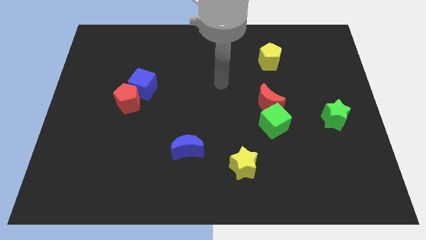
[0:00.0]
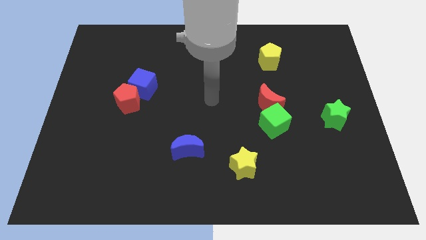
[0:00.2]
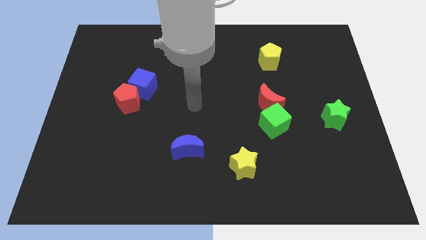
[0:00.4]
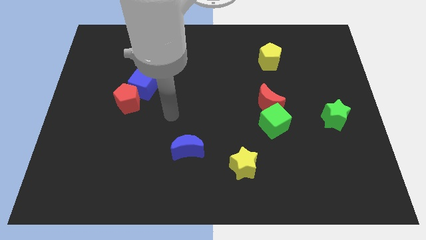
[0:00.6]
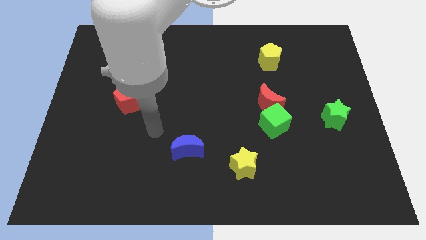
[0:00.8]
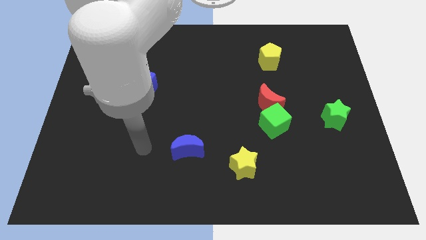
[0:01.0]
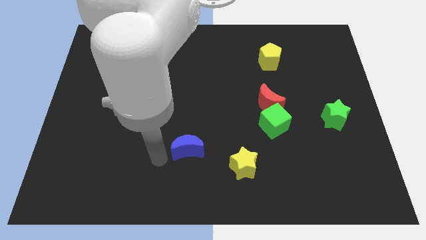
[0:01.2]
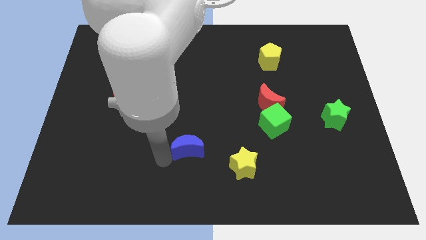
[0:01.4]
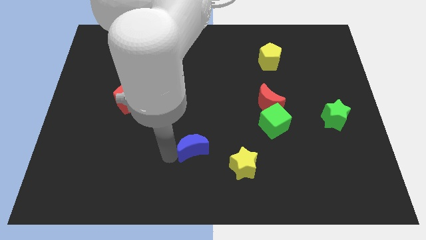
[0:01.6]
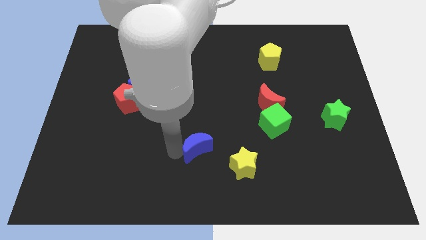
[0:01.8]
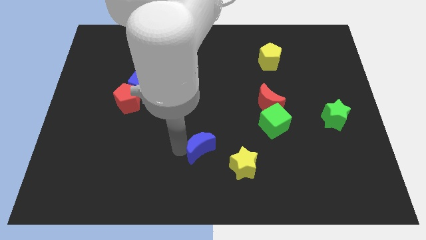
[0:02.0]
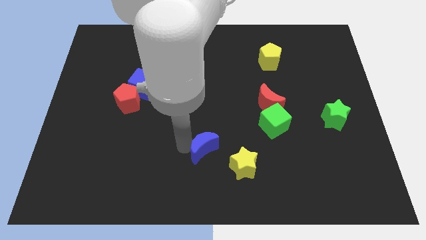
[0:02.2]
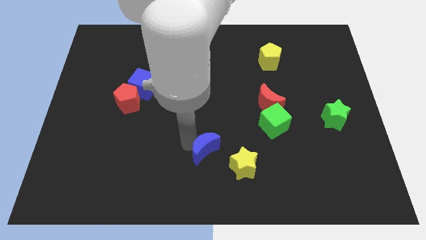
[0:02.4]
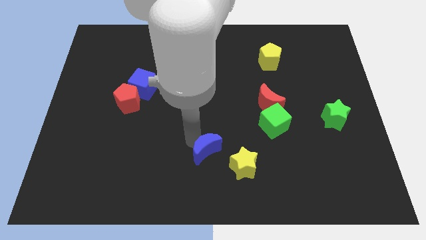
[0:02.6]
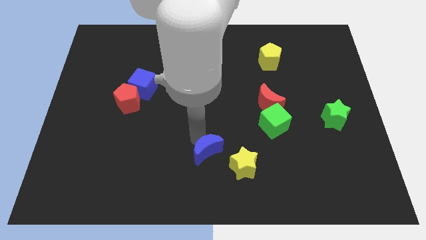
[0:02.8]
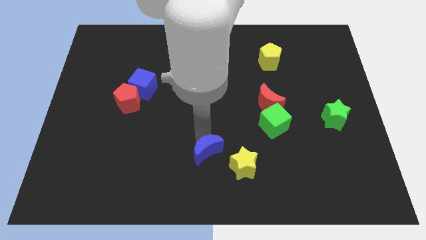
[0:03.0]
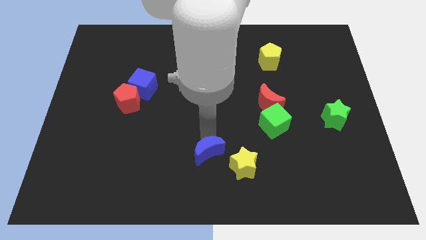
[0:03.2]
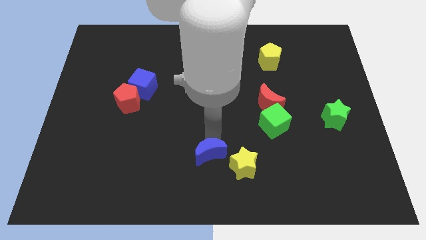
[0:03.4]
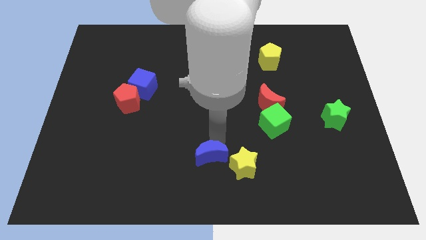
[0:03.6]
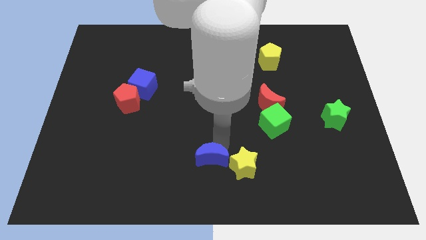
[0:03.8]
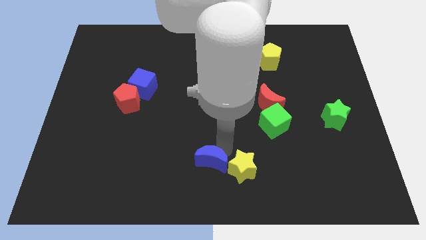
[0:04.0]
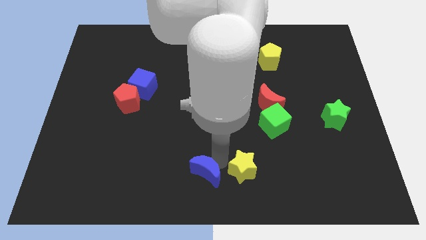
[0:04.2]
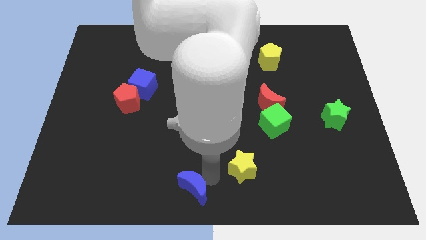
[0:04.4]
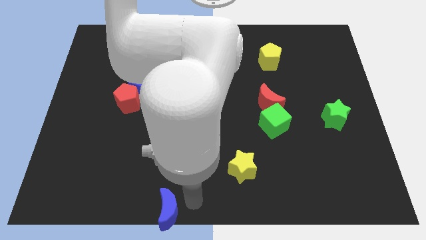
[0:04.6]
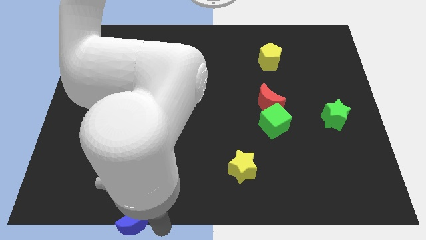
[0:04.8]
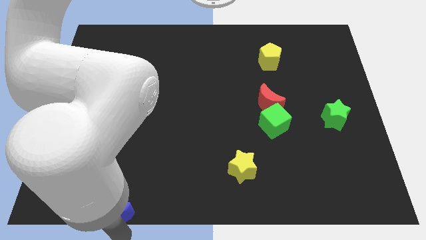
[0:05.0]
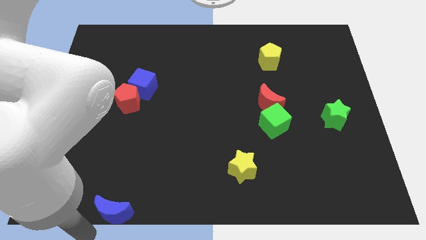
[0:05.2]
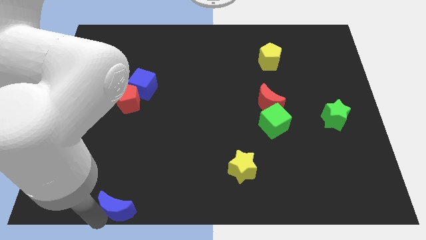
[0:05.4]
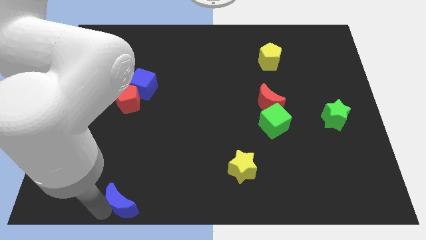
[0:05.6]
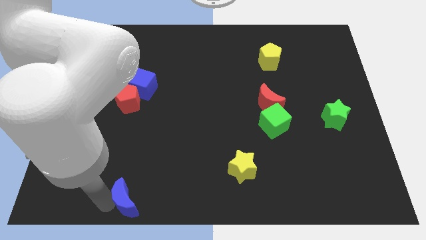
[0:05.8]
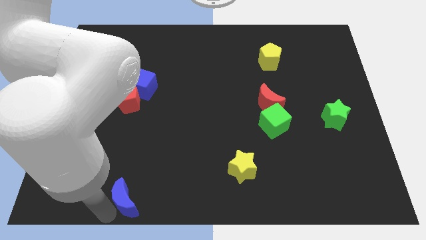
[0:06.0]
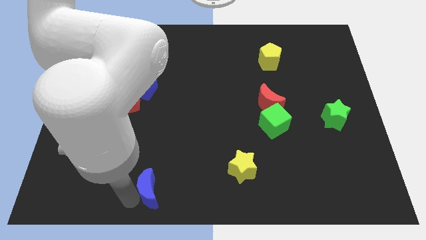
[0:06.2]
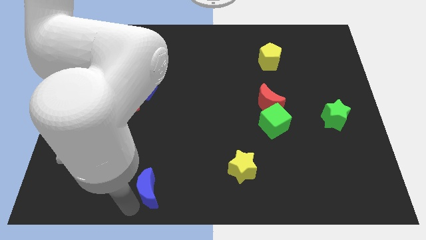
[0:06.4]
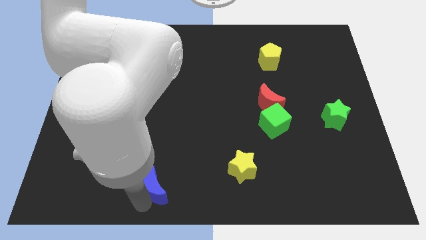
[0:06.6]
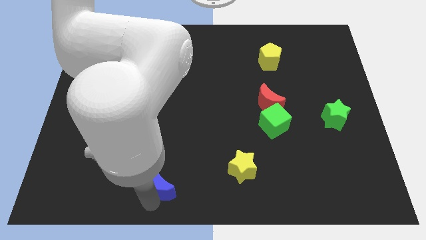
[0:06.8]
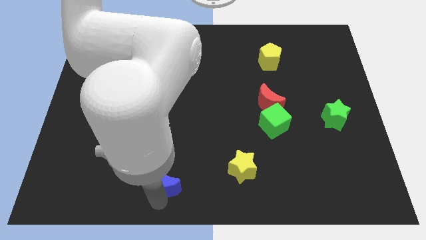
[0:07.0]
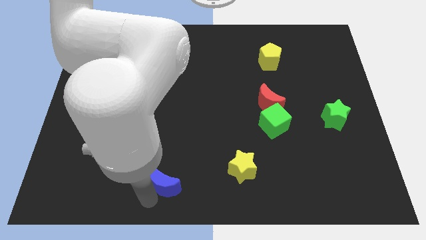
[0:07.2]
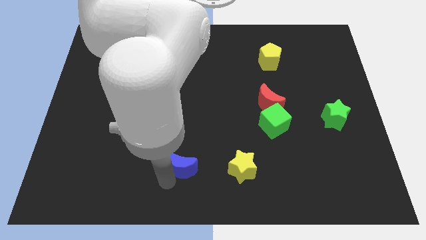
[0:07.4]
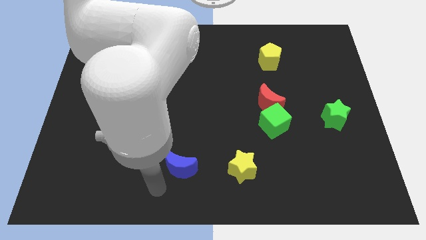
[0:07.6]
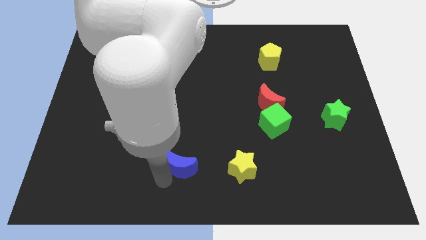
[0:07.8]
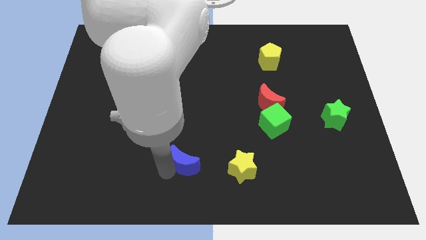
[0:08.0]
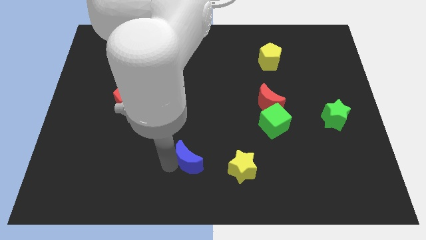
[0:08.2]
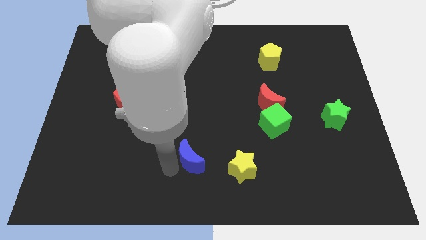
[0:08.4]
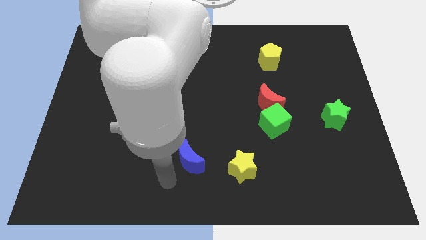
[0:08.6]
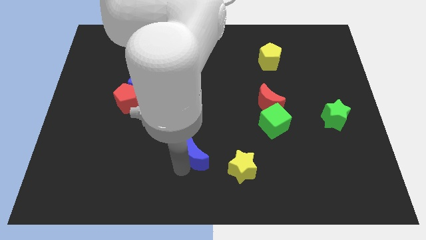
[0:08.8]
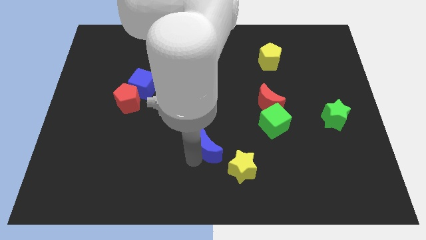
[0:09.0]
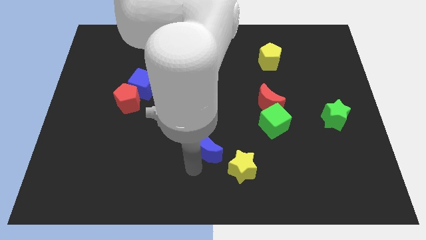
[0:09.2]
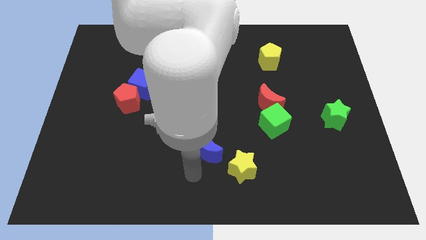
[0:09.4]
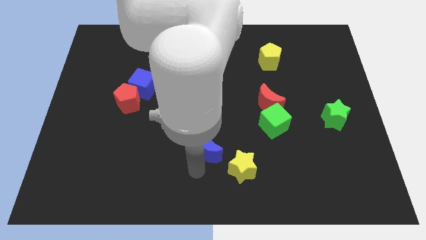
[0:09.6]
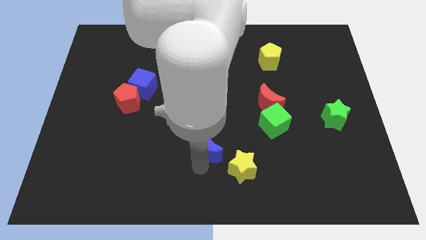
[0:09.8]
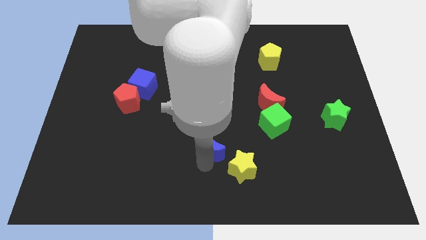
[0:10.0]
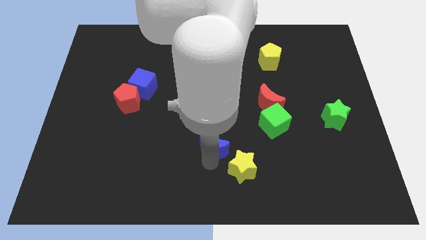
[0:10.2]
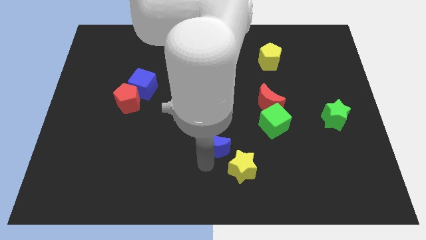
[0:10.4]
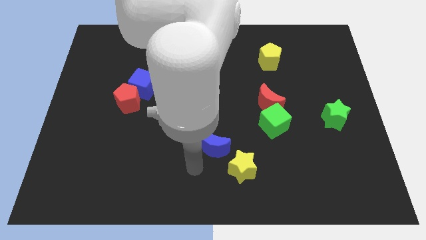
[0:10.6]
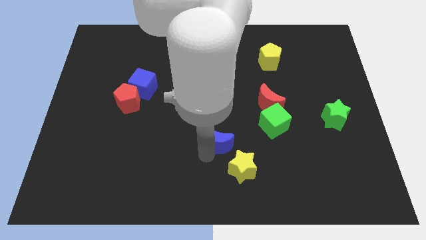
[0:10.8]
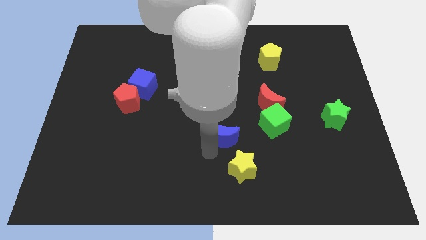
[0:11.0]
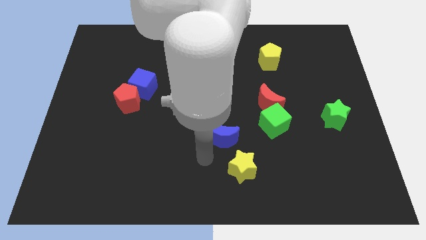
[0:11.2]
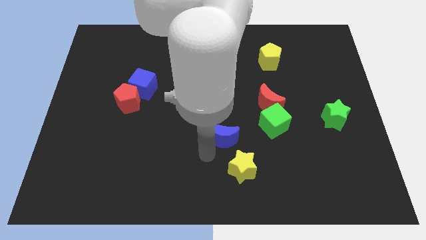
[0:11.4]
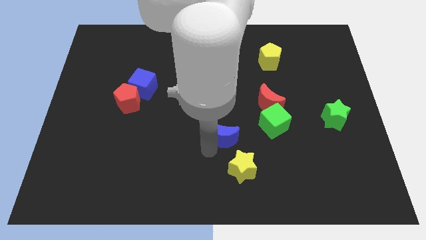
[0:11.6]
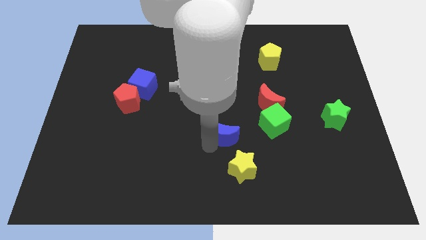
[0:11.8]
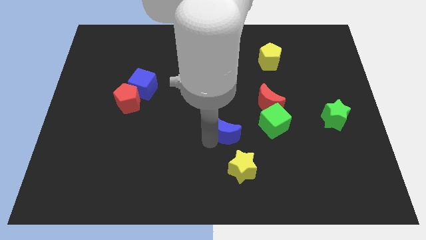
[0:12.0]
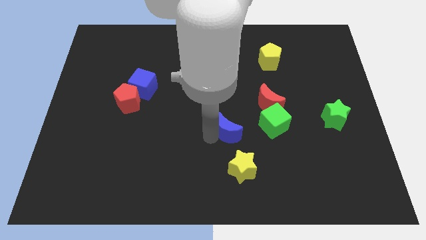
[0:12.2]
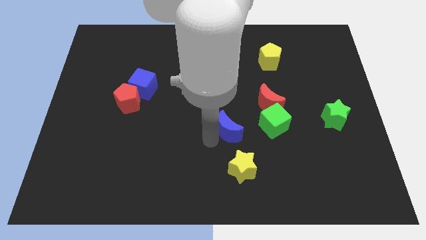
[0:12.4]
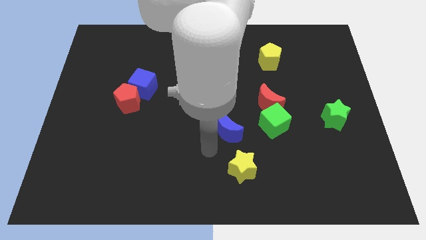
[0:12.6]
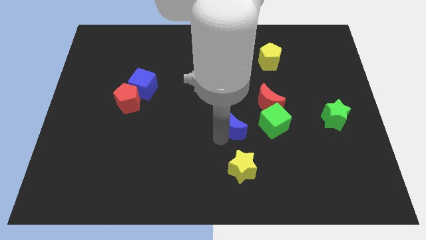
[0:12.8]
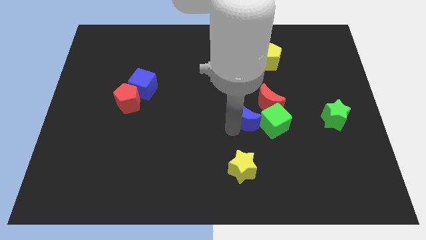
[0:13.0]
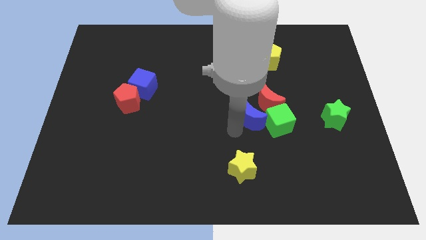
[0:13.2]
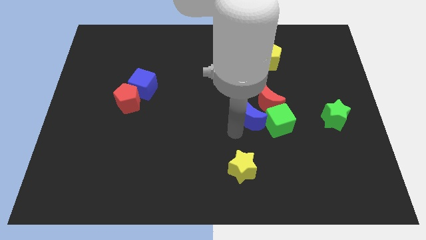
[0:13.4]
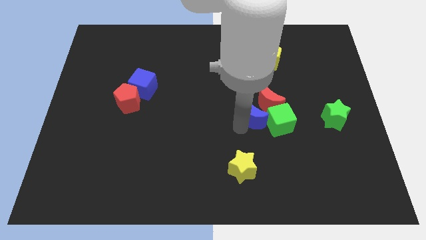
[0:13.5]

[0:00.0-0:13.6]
slide the blue moon next to the red moon

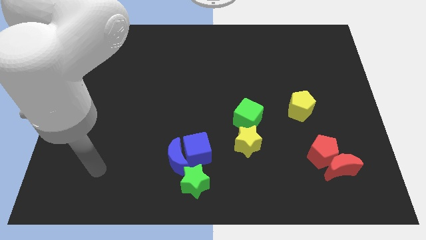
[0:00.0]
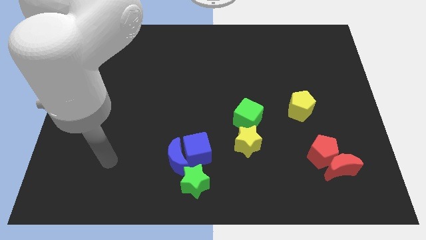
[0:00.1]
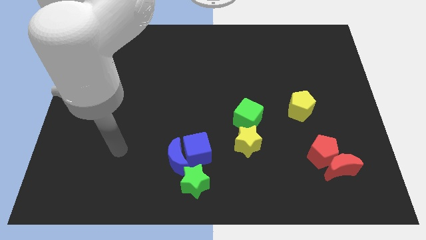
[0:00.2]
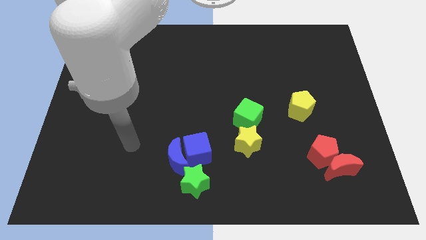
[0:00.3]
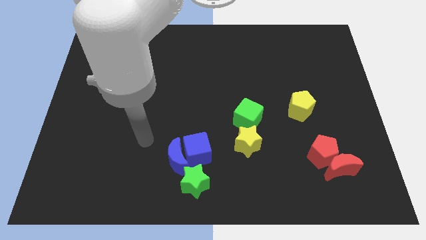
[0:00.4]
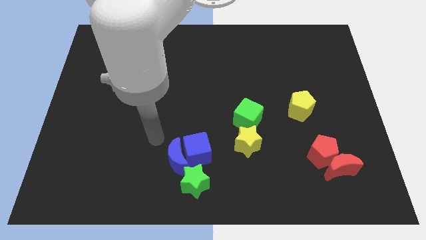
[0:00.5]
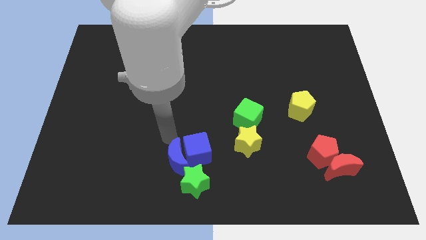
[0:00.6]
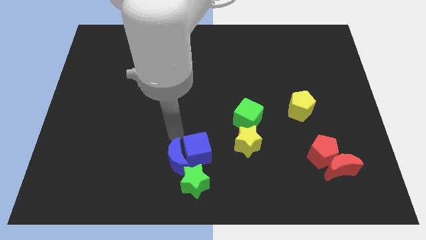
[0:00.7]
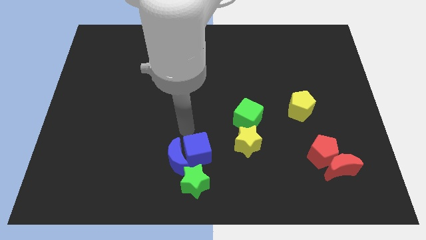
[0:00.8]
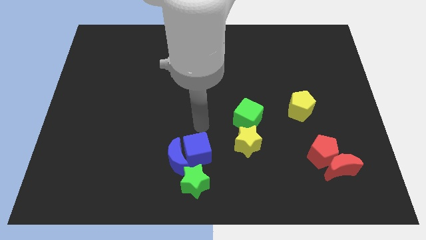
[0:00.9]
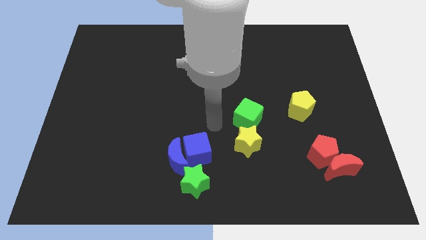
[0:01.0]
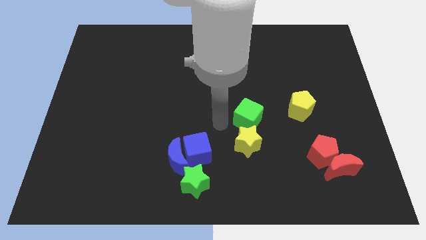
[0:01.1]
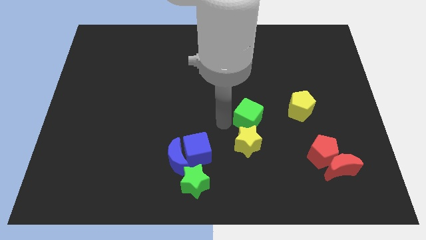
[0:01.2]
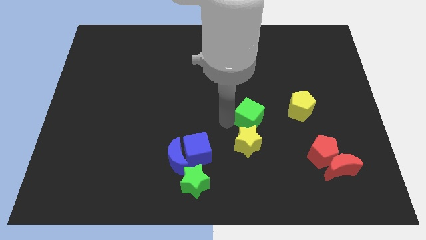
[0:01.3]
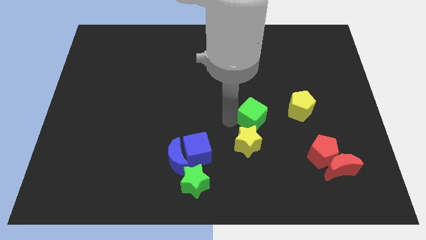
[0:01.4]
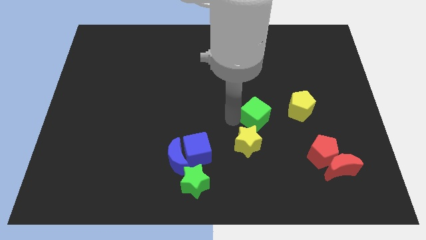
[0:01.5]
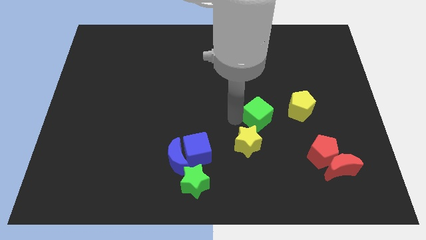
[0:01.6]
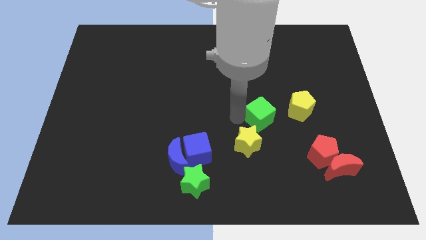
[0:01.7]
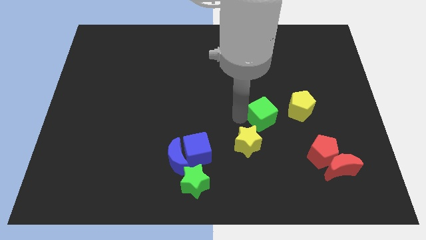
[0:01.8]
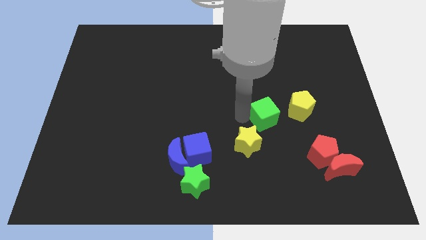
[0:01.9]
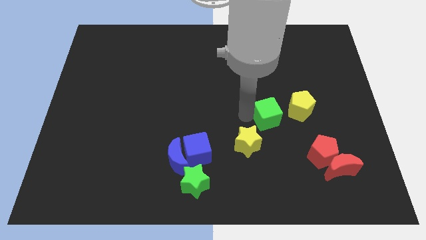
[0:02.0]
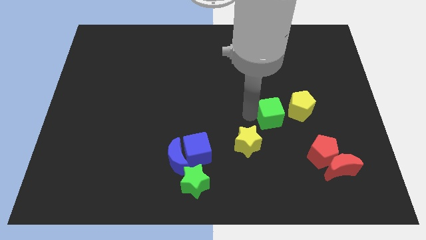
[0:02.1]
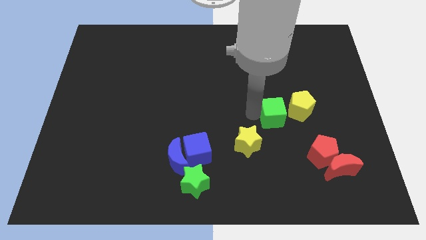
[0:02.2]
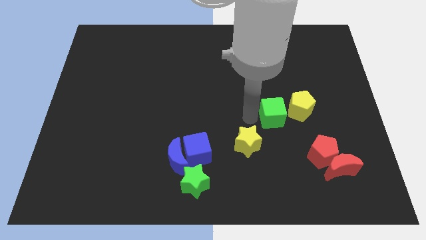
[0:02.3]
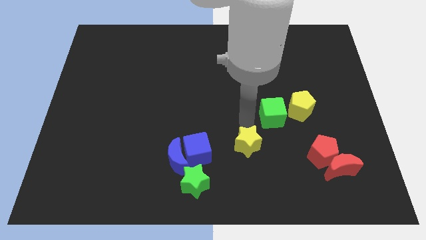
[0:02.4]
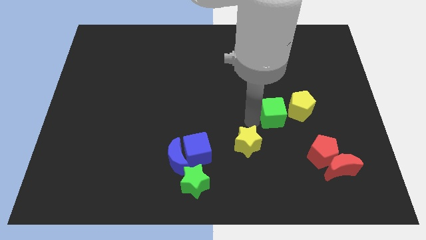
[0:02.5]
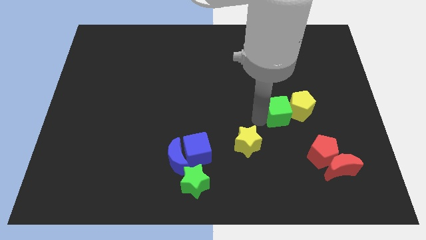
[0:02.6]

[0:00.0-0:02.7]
push the green cube close to the yellow pentagon
